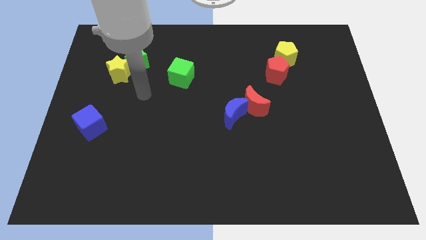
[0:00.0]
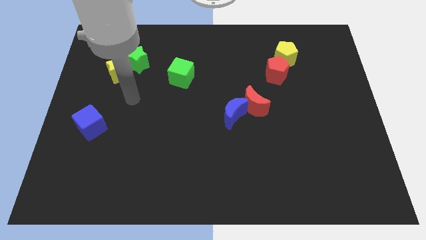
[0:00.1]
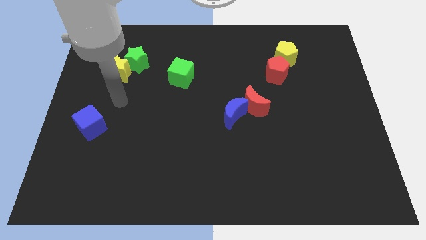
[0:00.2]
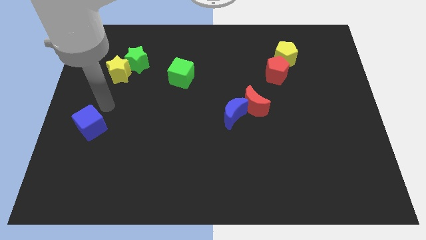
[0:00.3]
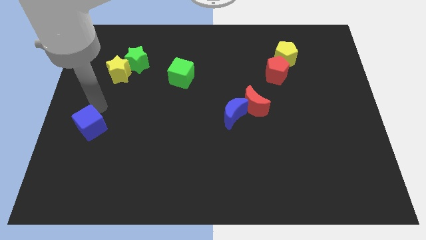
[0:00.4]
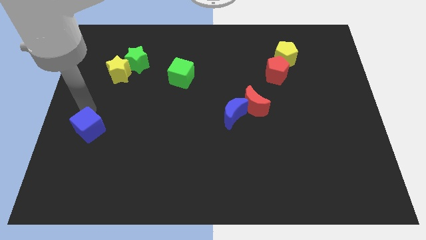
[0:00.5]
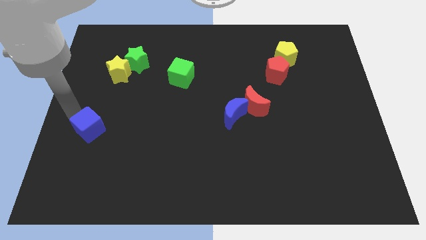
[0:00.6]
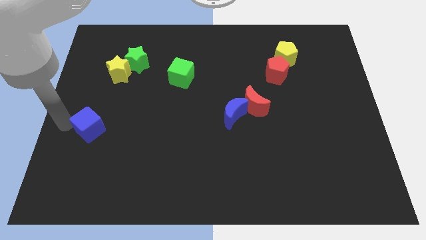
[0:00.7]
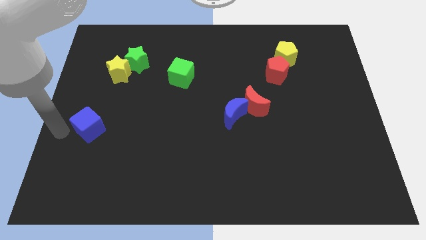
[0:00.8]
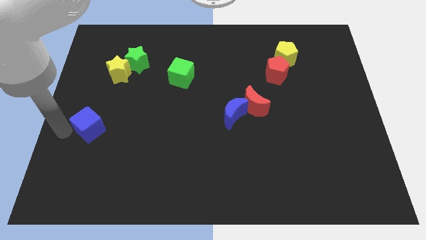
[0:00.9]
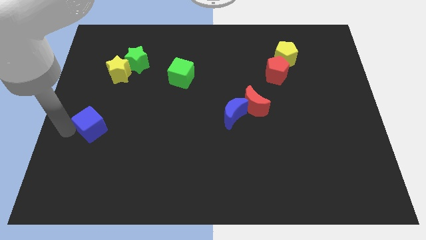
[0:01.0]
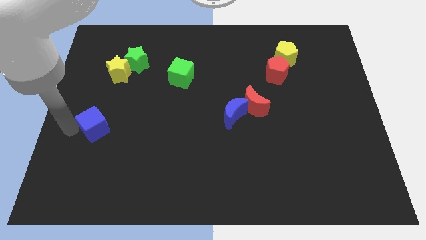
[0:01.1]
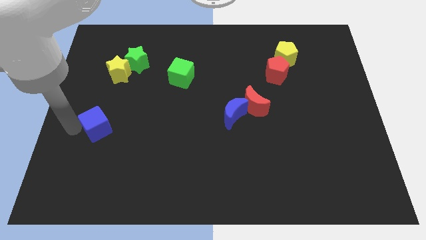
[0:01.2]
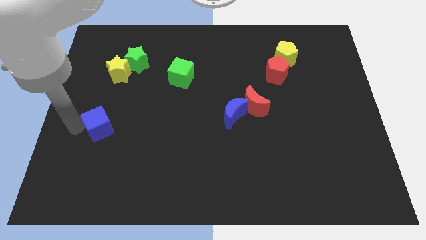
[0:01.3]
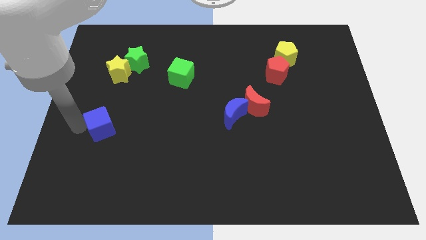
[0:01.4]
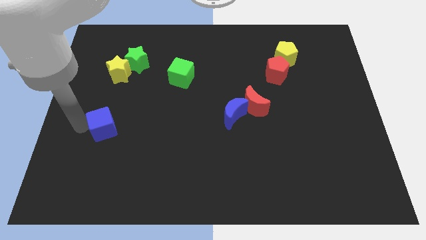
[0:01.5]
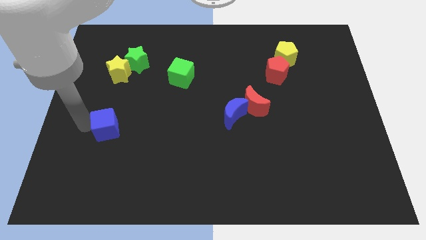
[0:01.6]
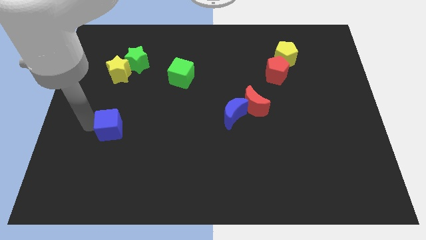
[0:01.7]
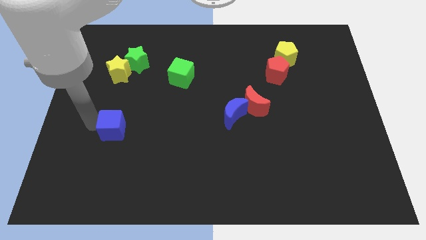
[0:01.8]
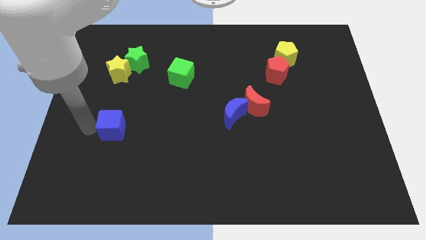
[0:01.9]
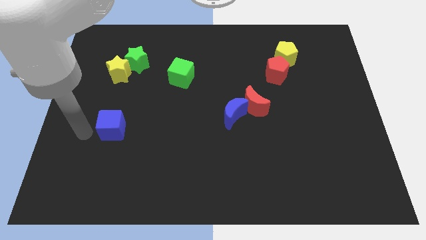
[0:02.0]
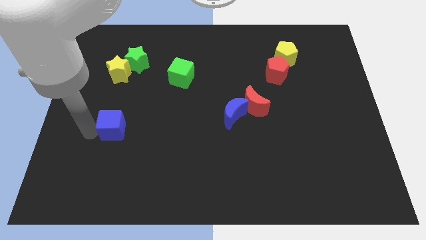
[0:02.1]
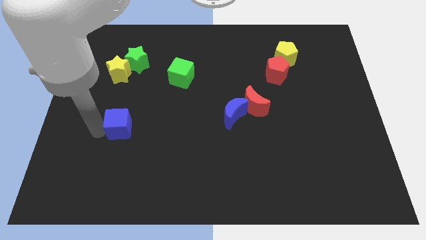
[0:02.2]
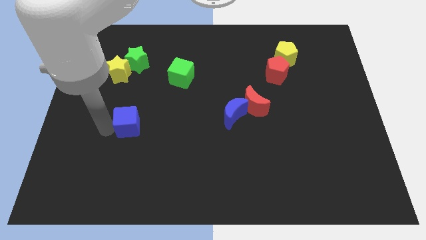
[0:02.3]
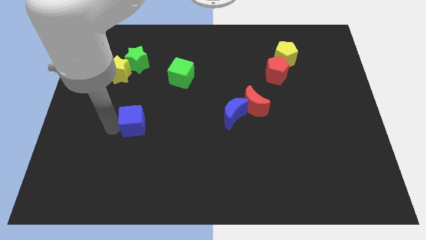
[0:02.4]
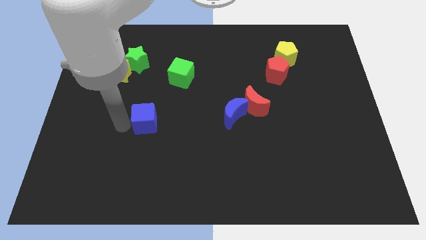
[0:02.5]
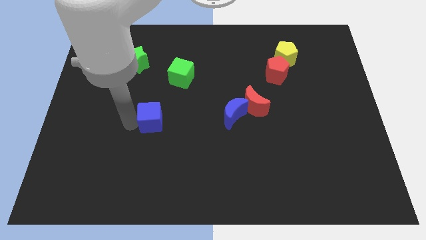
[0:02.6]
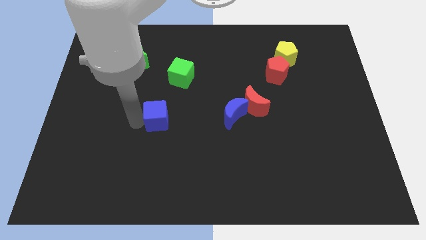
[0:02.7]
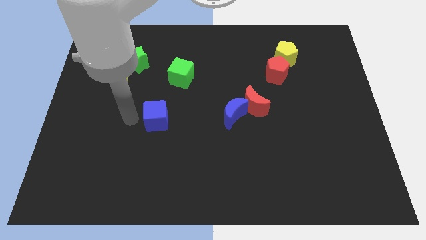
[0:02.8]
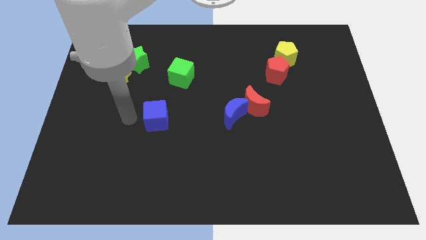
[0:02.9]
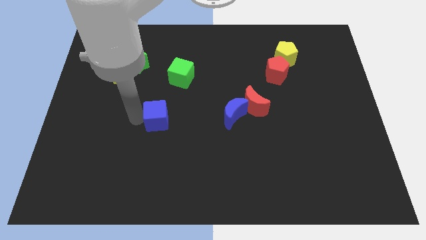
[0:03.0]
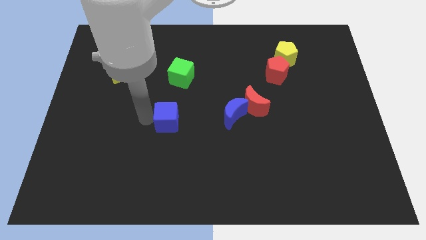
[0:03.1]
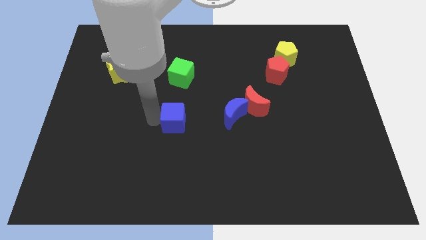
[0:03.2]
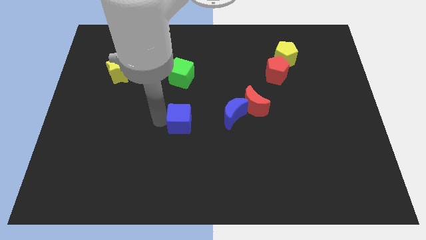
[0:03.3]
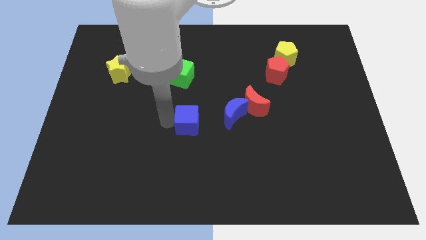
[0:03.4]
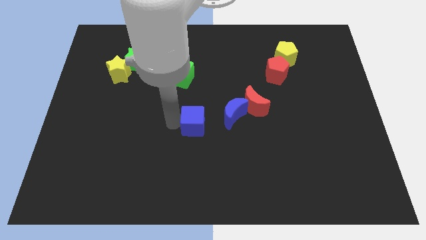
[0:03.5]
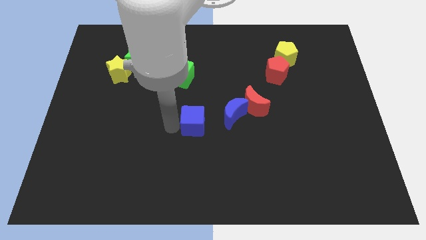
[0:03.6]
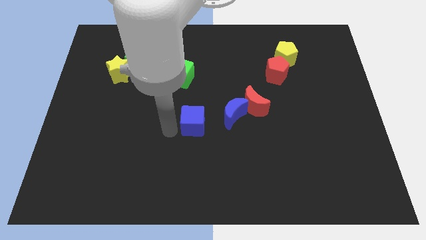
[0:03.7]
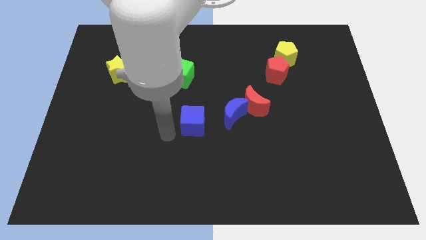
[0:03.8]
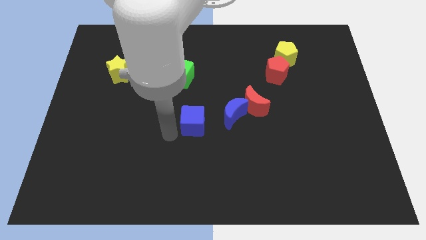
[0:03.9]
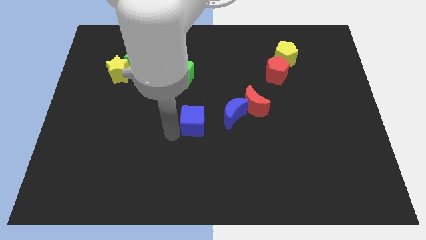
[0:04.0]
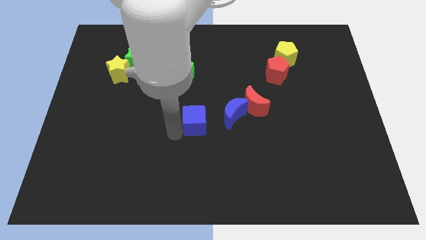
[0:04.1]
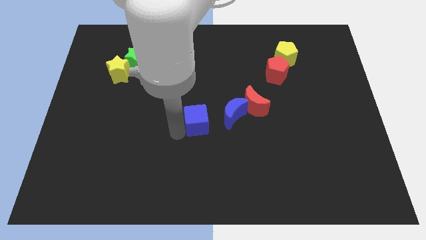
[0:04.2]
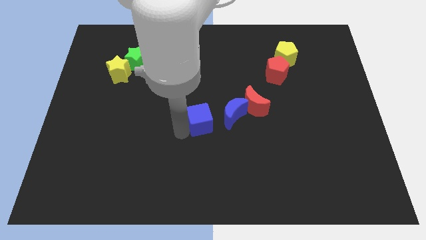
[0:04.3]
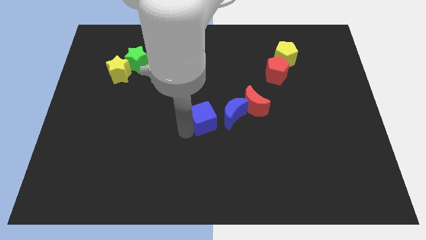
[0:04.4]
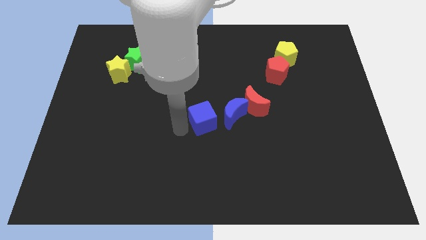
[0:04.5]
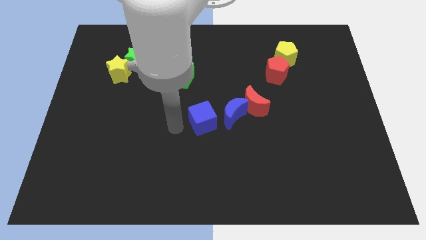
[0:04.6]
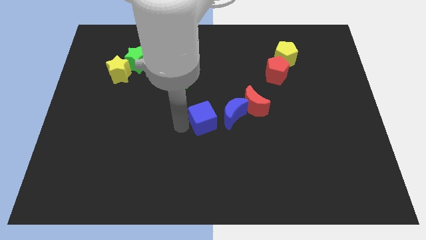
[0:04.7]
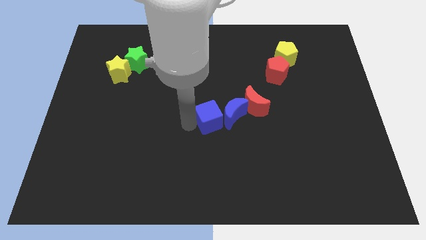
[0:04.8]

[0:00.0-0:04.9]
push the blue cube close to the blue moon

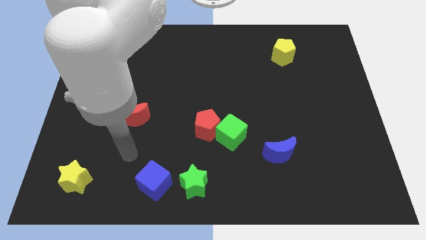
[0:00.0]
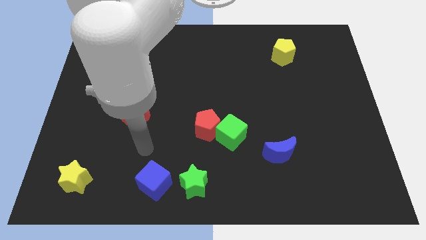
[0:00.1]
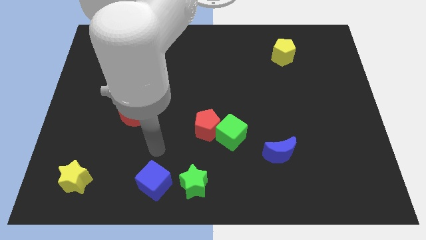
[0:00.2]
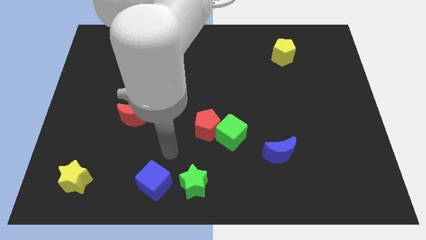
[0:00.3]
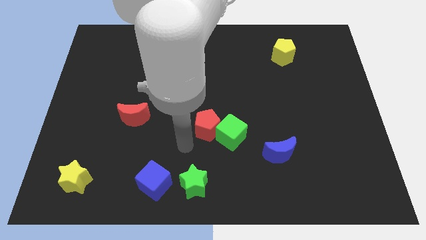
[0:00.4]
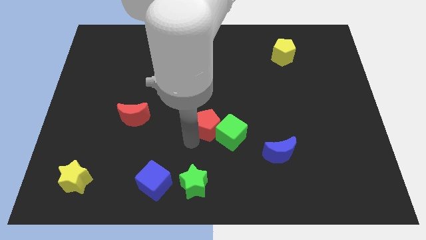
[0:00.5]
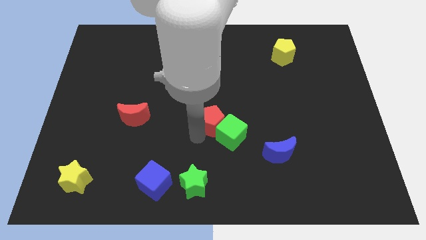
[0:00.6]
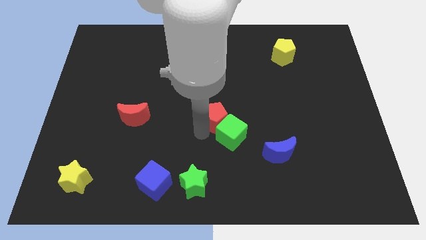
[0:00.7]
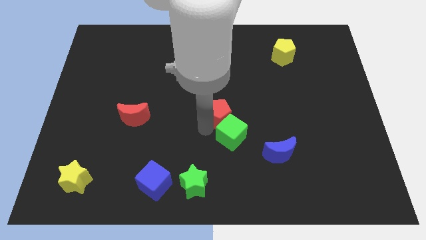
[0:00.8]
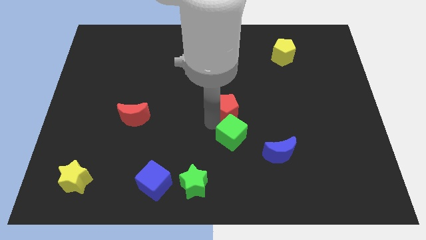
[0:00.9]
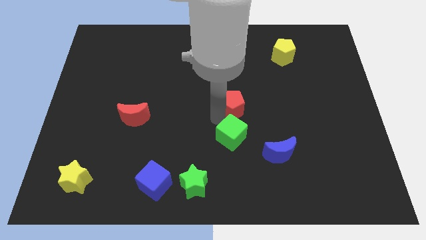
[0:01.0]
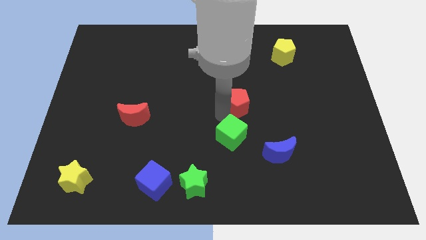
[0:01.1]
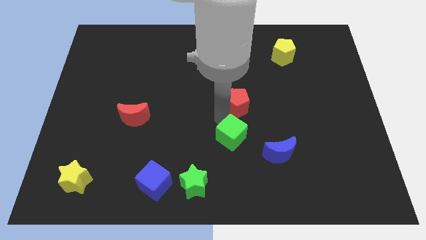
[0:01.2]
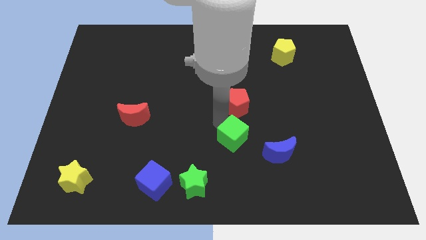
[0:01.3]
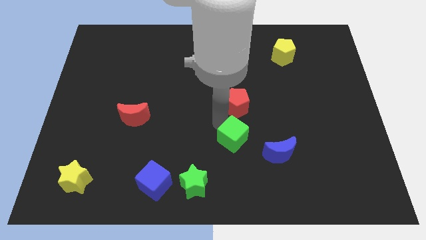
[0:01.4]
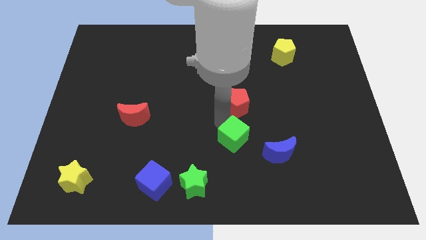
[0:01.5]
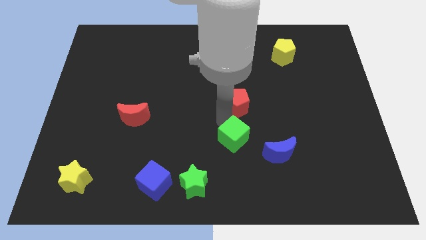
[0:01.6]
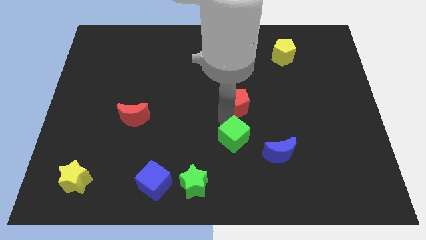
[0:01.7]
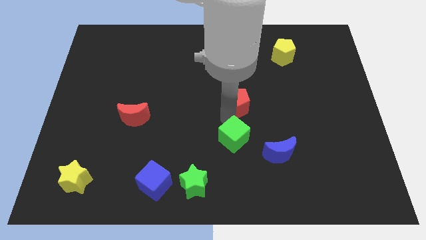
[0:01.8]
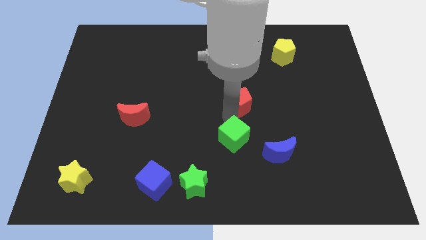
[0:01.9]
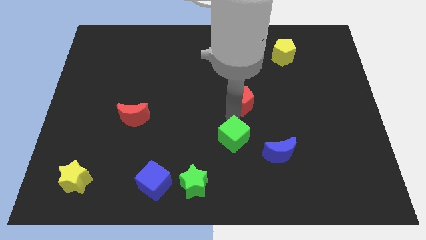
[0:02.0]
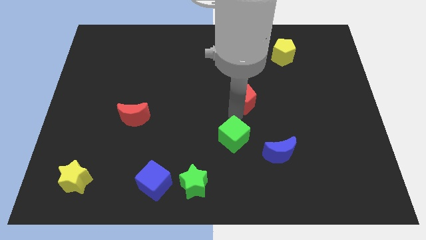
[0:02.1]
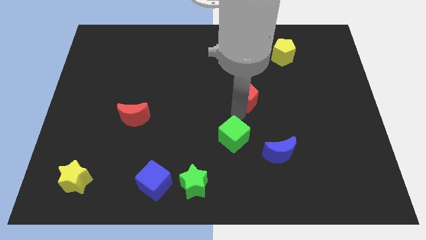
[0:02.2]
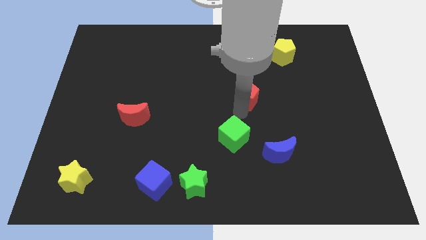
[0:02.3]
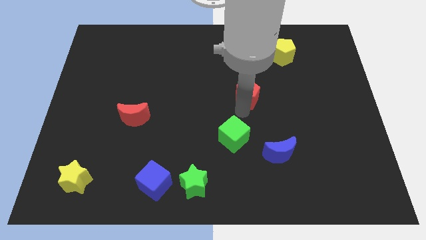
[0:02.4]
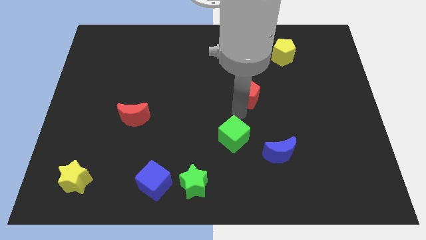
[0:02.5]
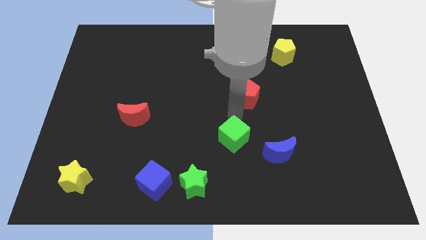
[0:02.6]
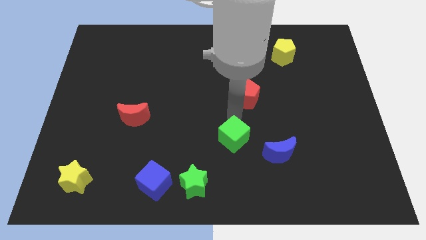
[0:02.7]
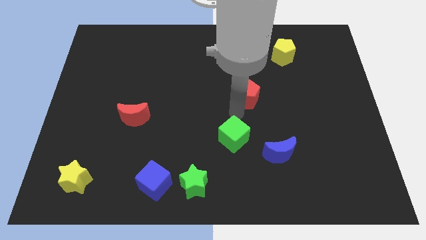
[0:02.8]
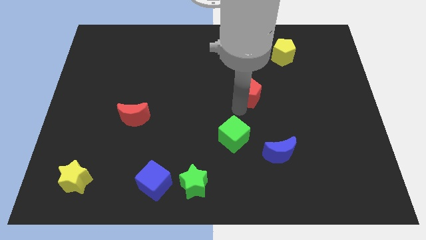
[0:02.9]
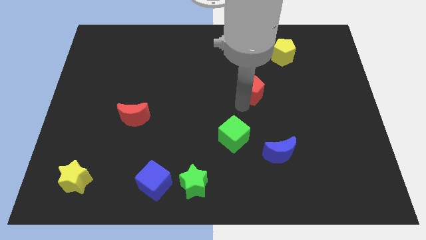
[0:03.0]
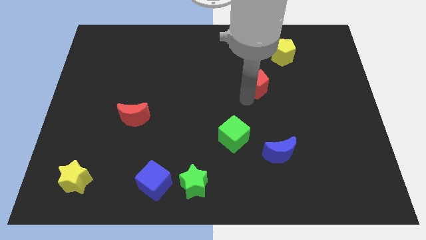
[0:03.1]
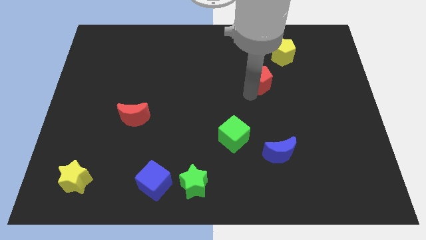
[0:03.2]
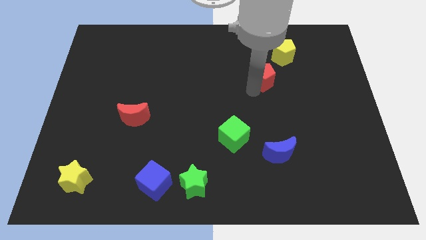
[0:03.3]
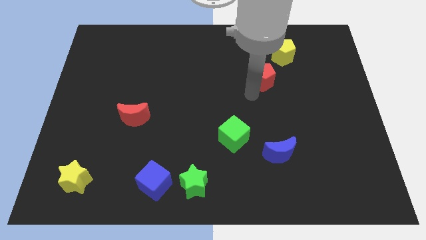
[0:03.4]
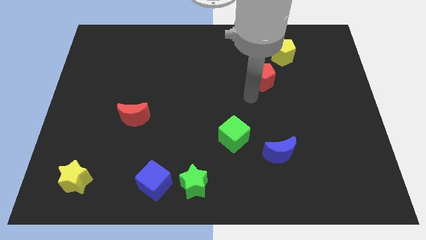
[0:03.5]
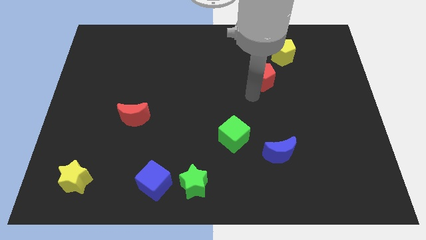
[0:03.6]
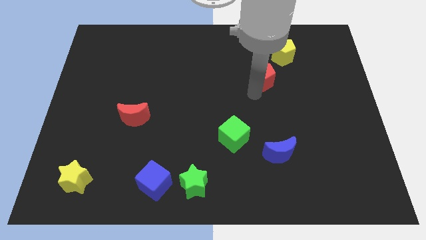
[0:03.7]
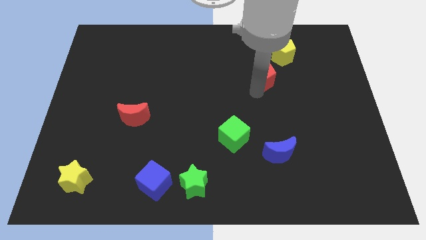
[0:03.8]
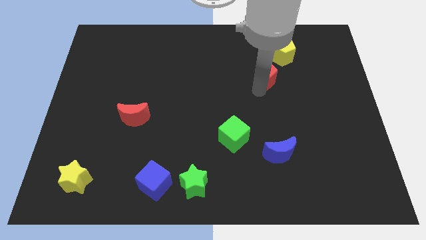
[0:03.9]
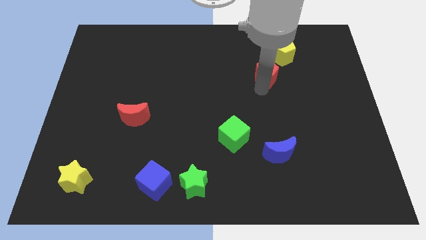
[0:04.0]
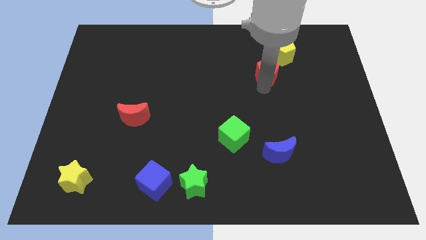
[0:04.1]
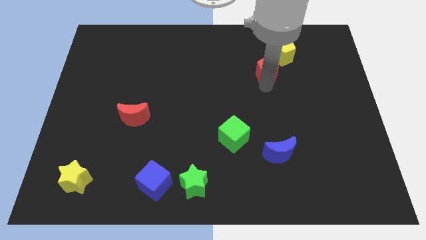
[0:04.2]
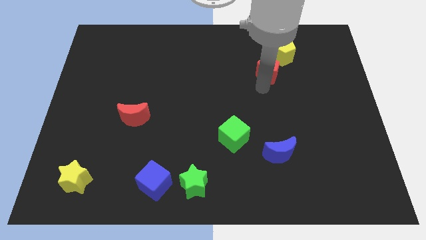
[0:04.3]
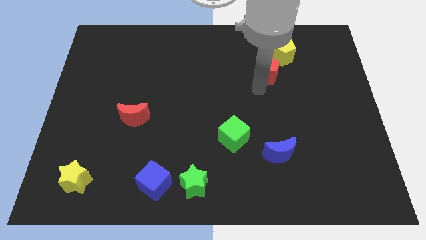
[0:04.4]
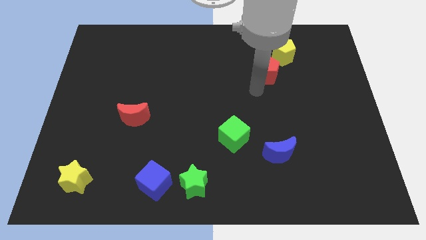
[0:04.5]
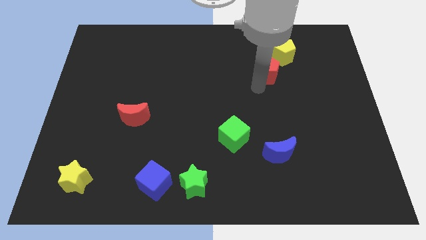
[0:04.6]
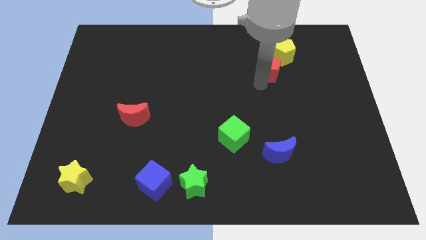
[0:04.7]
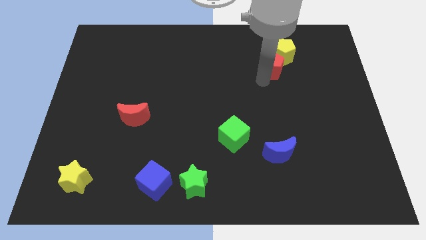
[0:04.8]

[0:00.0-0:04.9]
move the red pentagon next to the yellow pentagon
